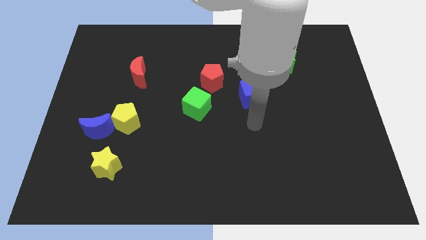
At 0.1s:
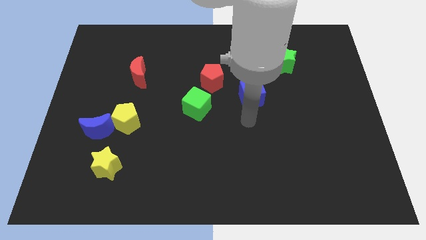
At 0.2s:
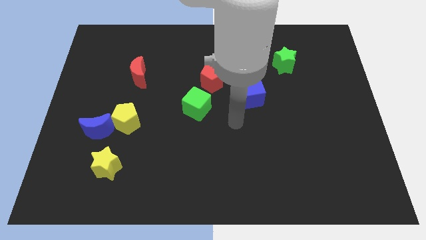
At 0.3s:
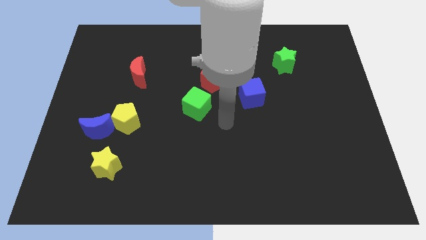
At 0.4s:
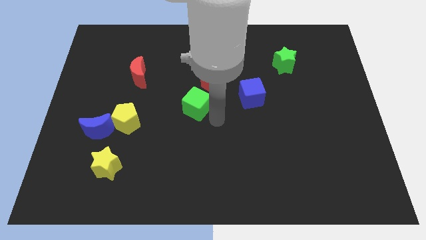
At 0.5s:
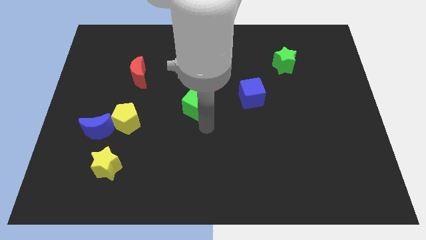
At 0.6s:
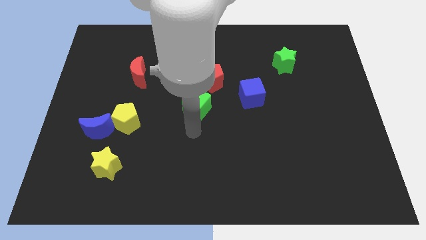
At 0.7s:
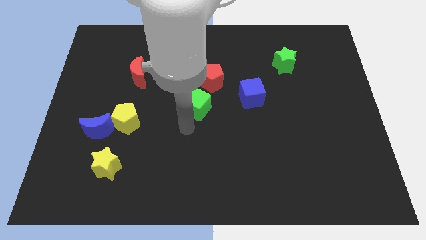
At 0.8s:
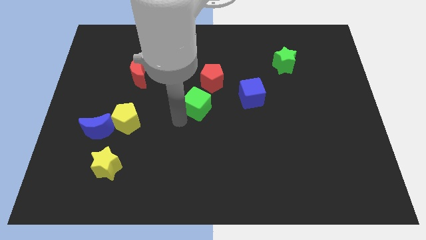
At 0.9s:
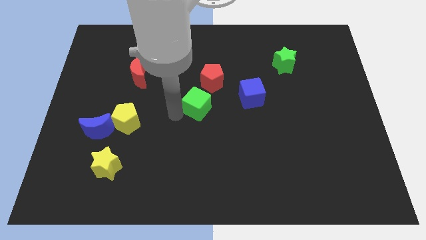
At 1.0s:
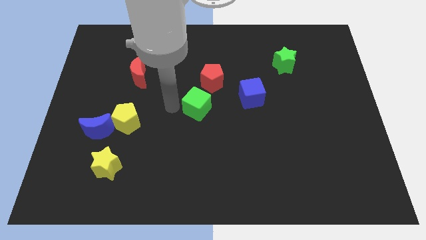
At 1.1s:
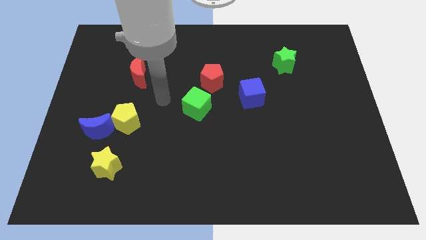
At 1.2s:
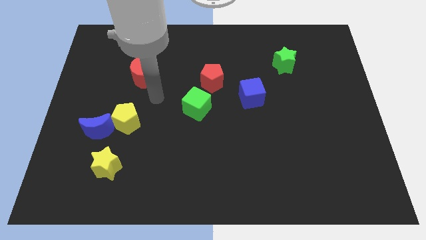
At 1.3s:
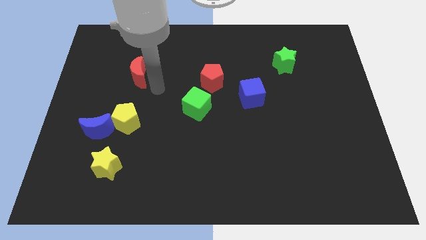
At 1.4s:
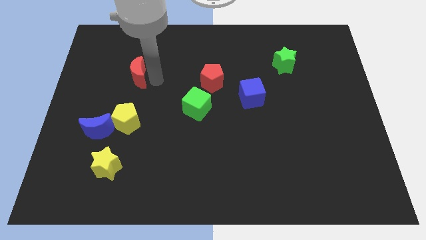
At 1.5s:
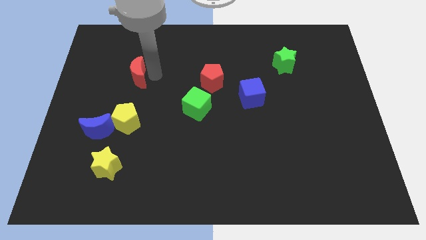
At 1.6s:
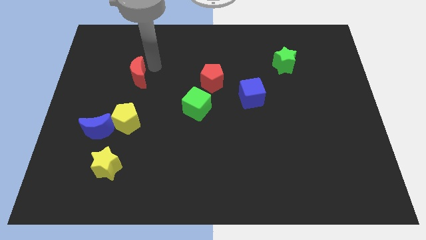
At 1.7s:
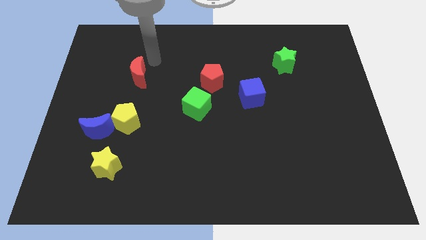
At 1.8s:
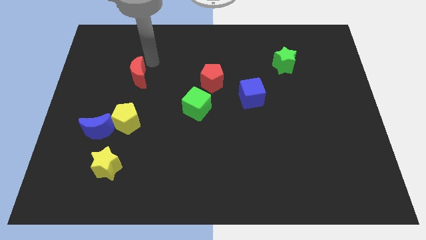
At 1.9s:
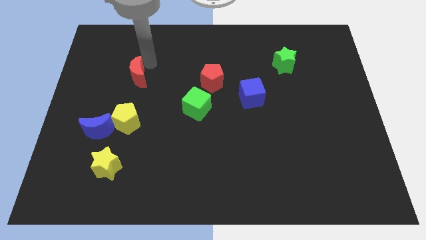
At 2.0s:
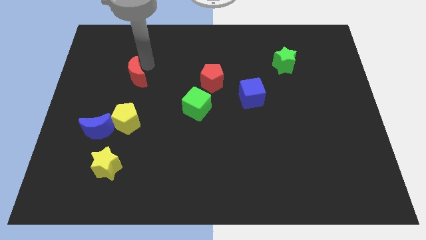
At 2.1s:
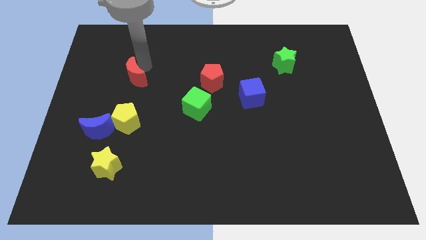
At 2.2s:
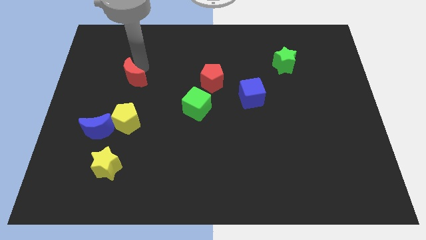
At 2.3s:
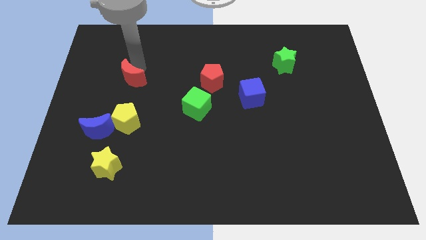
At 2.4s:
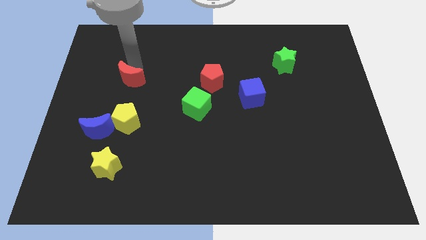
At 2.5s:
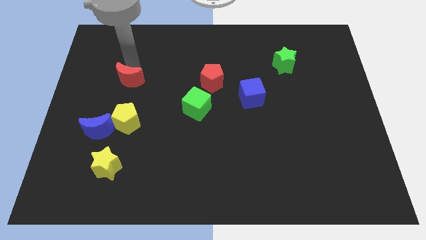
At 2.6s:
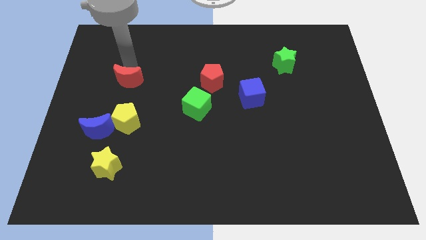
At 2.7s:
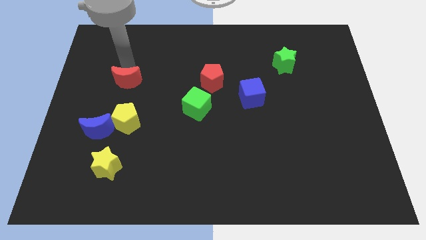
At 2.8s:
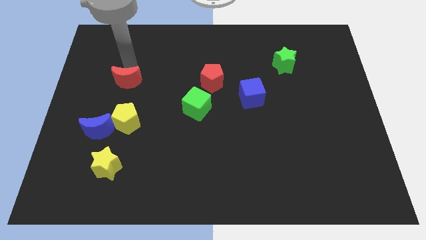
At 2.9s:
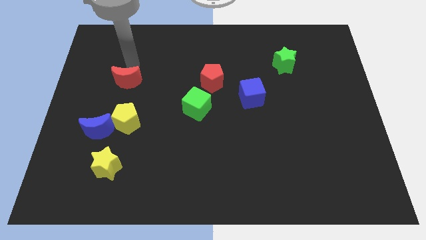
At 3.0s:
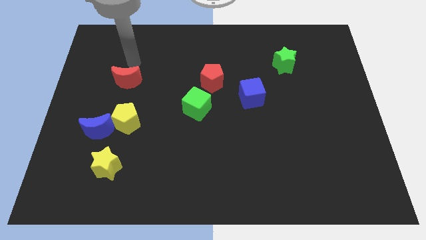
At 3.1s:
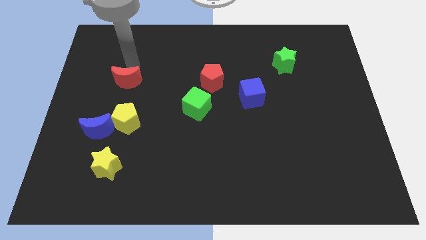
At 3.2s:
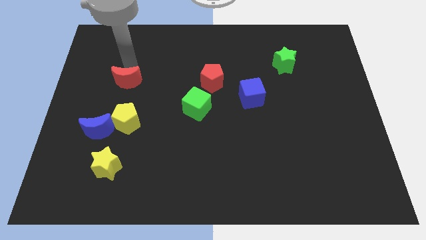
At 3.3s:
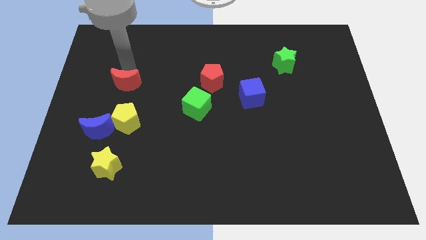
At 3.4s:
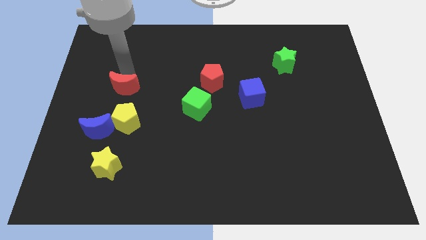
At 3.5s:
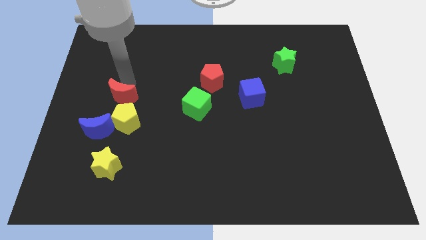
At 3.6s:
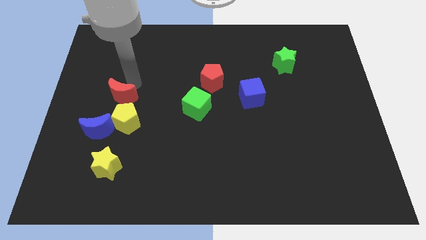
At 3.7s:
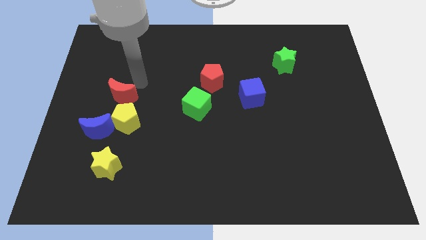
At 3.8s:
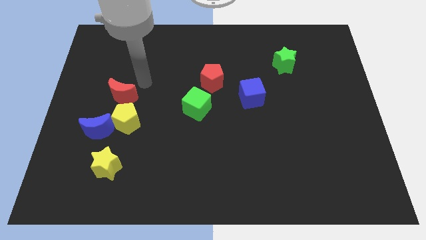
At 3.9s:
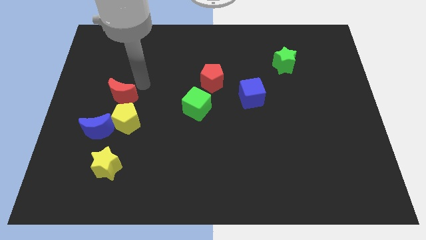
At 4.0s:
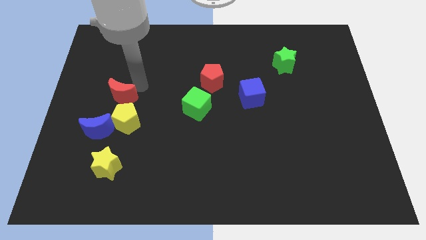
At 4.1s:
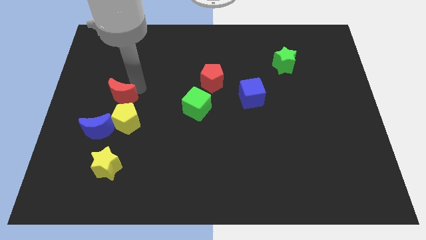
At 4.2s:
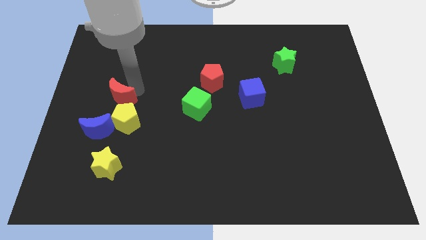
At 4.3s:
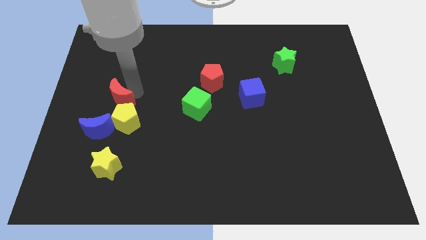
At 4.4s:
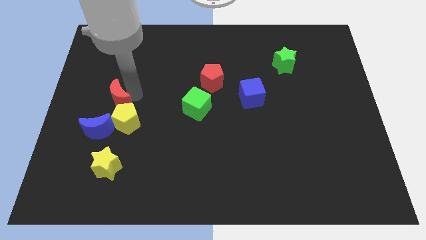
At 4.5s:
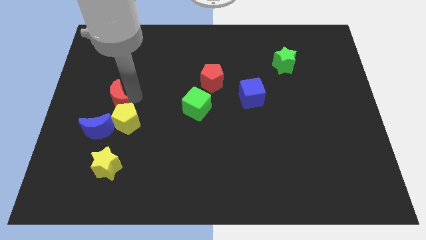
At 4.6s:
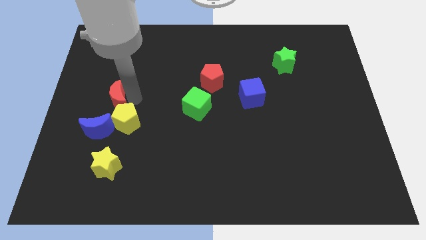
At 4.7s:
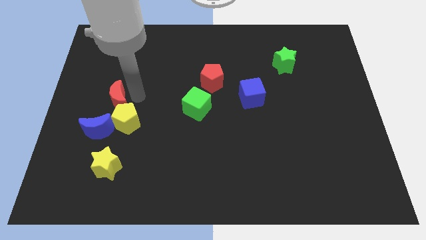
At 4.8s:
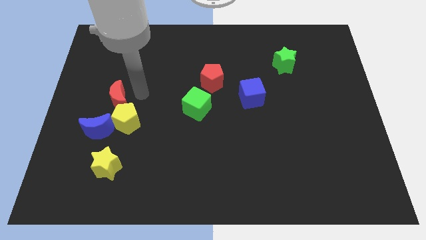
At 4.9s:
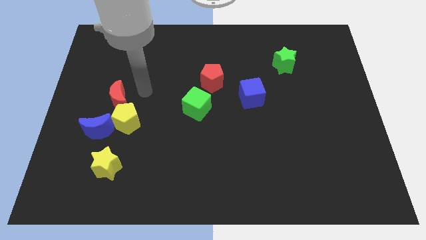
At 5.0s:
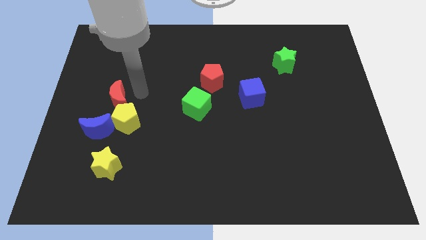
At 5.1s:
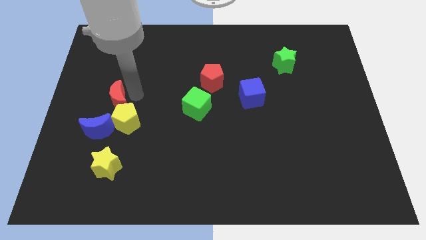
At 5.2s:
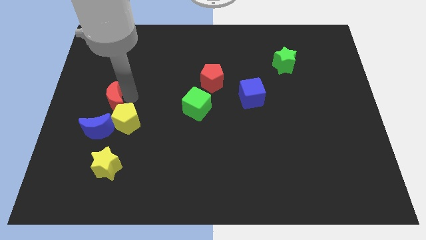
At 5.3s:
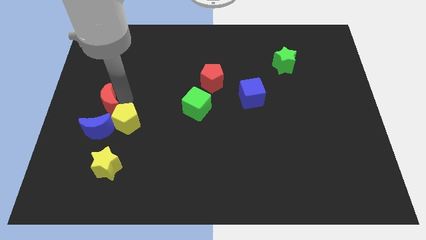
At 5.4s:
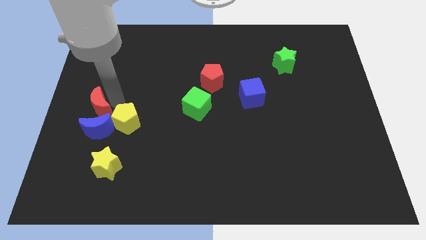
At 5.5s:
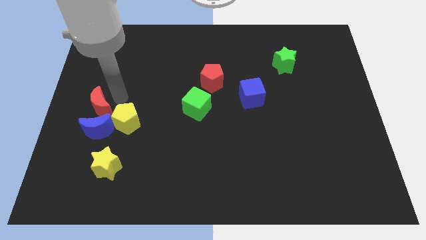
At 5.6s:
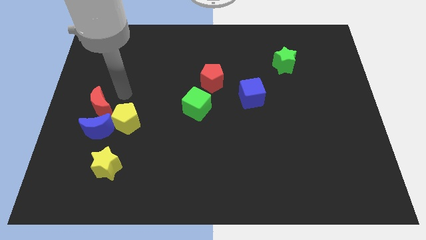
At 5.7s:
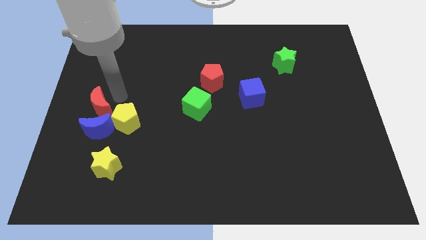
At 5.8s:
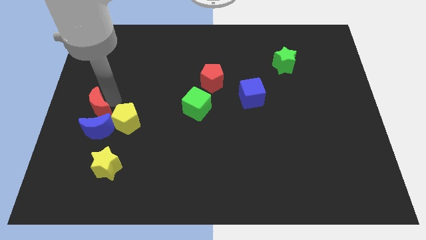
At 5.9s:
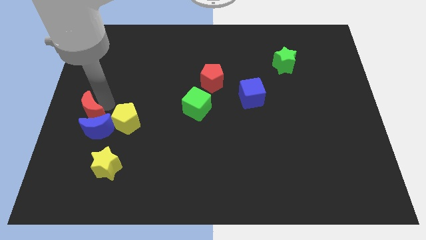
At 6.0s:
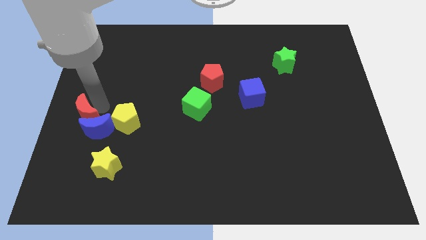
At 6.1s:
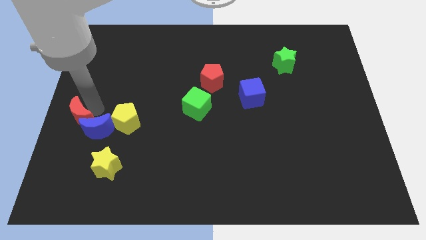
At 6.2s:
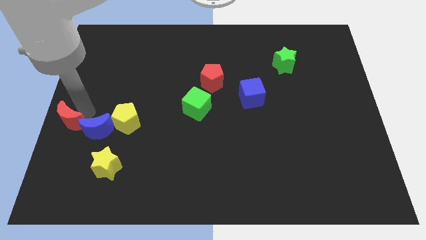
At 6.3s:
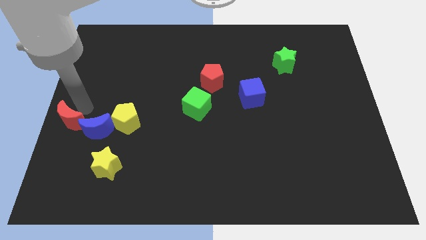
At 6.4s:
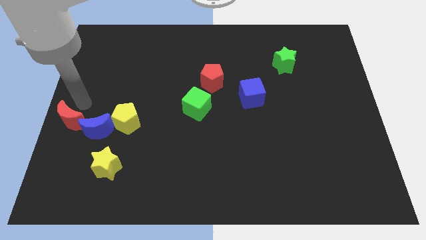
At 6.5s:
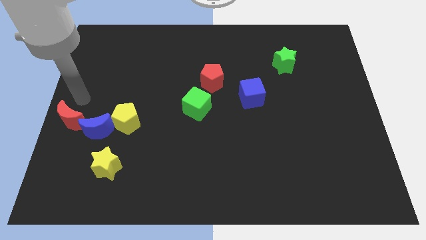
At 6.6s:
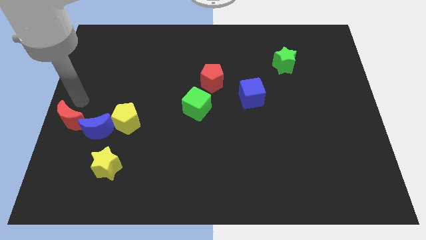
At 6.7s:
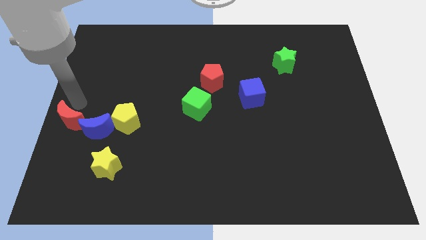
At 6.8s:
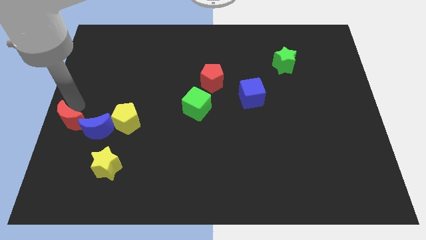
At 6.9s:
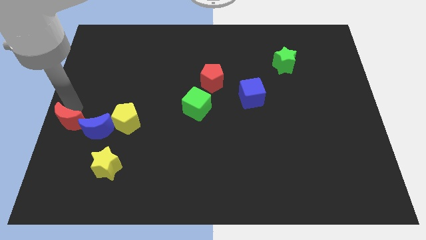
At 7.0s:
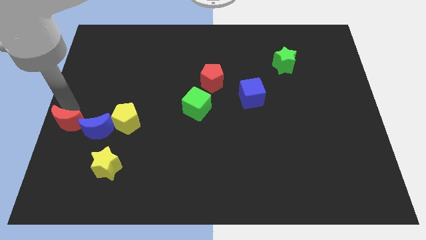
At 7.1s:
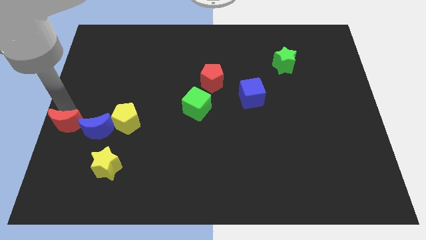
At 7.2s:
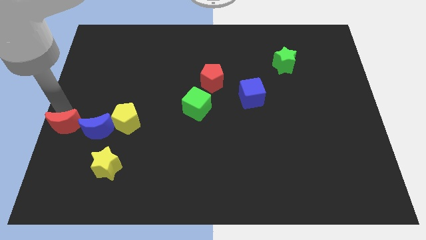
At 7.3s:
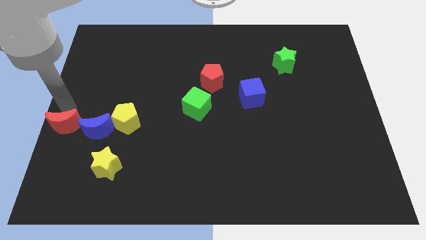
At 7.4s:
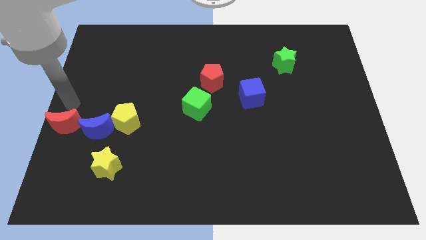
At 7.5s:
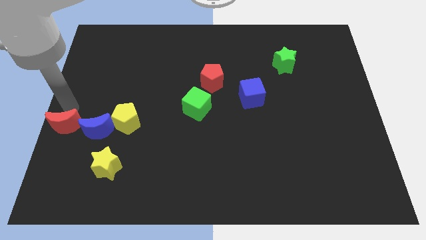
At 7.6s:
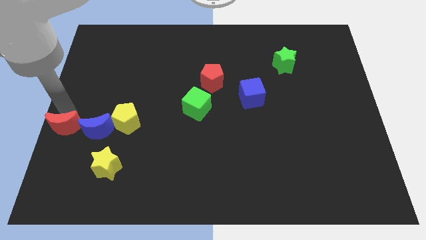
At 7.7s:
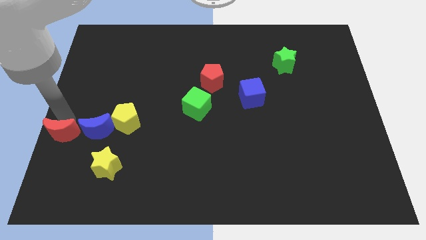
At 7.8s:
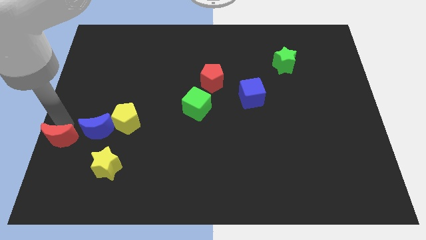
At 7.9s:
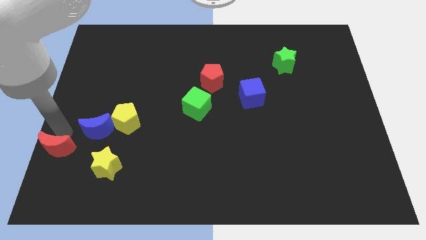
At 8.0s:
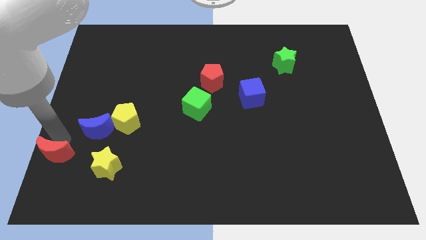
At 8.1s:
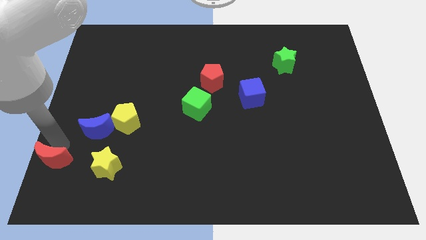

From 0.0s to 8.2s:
slide the red moon to the bottom left
